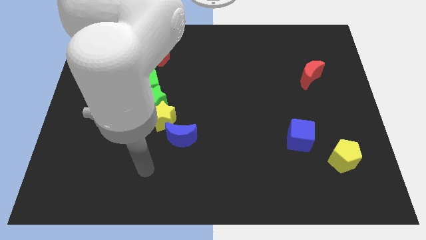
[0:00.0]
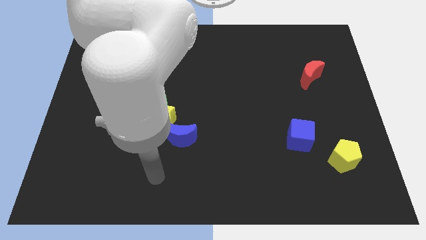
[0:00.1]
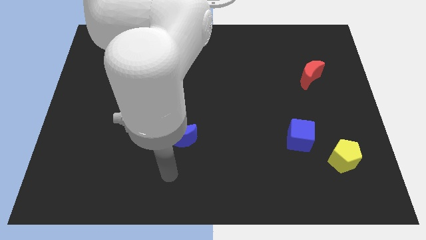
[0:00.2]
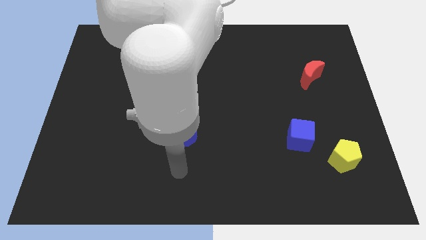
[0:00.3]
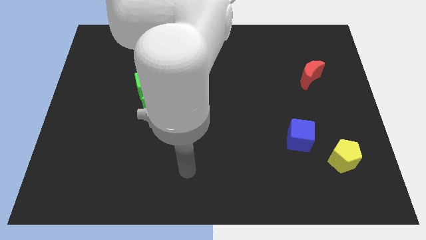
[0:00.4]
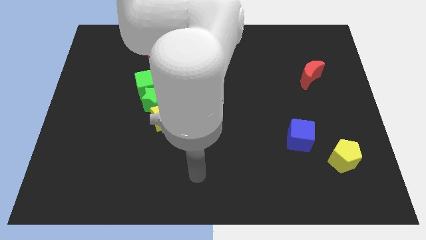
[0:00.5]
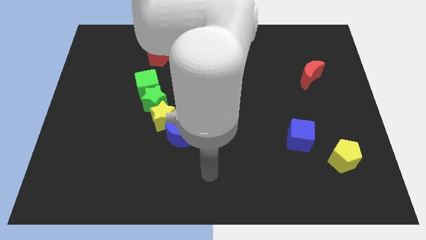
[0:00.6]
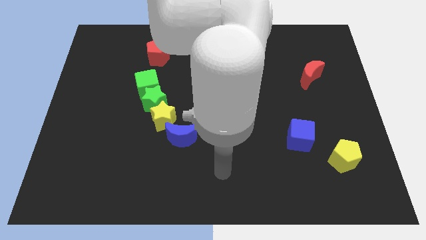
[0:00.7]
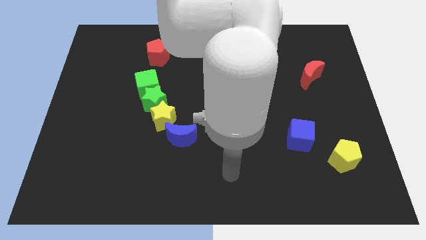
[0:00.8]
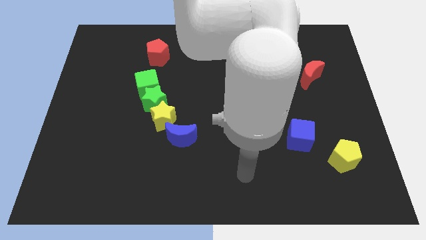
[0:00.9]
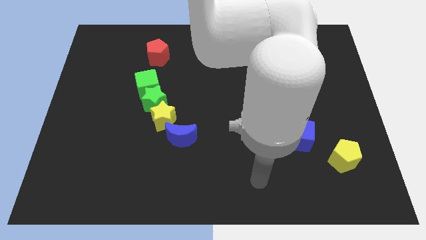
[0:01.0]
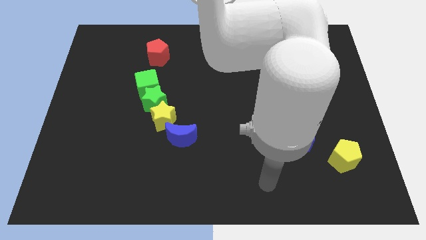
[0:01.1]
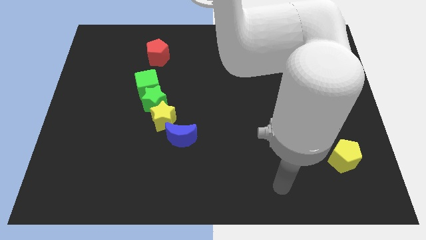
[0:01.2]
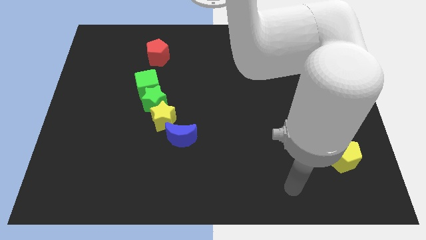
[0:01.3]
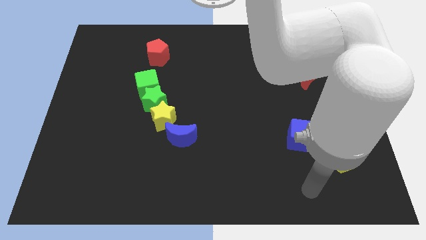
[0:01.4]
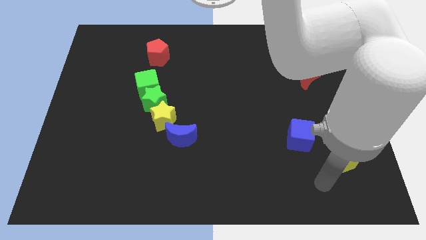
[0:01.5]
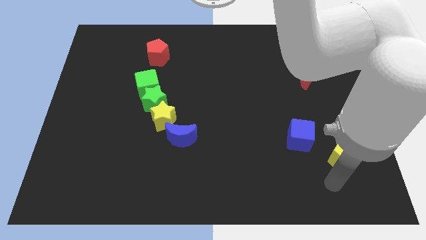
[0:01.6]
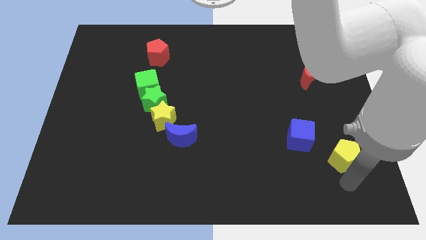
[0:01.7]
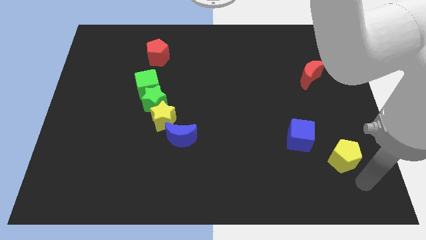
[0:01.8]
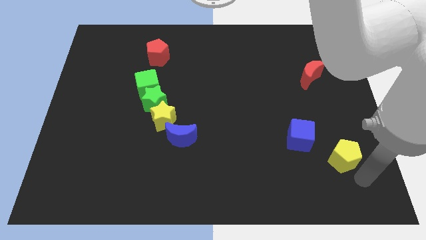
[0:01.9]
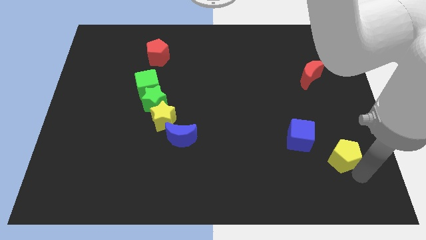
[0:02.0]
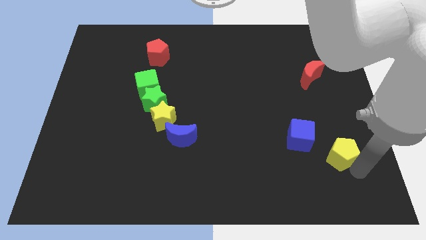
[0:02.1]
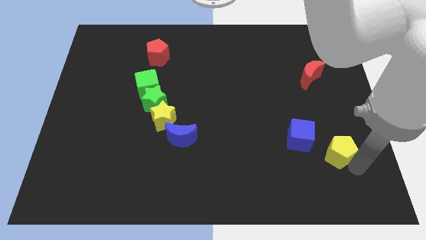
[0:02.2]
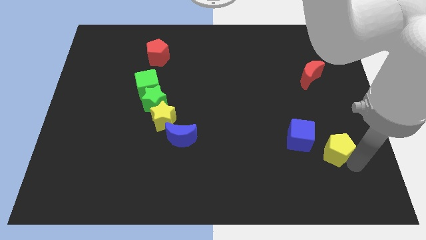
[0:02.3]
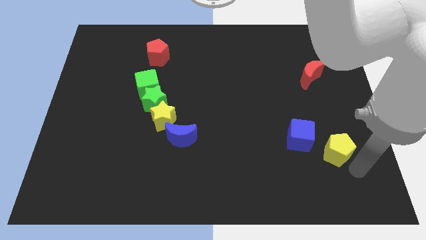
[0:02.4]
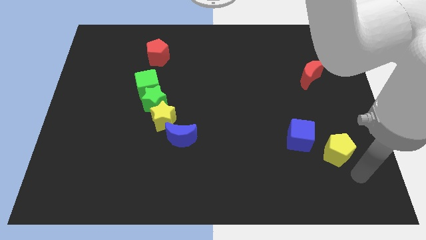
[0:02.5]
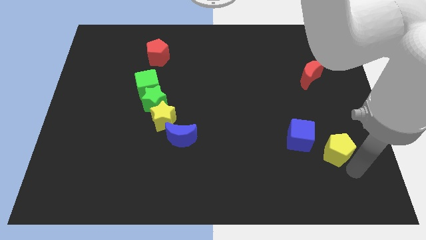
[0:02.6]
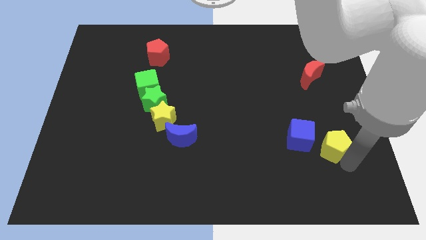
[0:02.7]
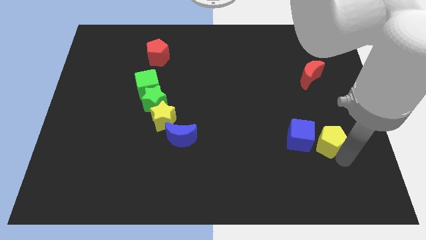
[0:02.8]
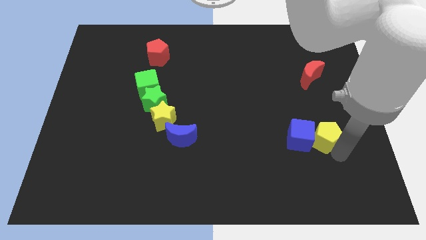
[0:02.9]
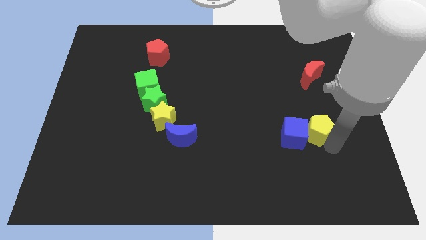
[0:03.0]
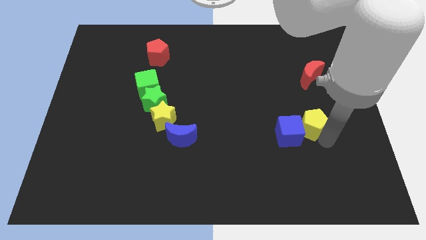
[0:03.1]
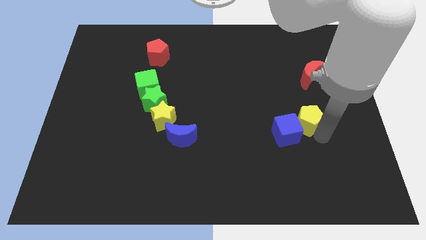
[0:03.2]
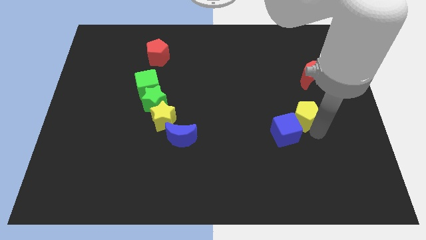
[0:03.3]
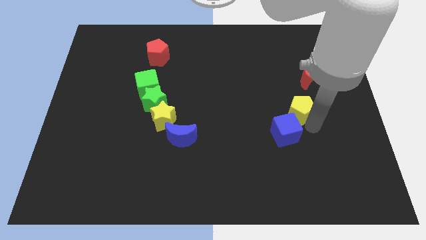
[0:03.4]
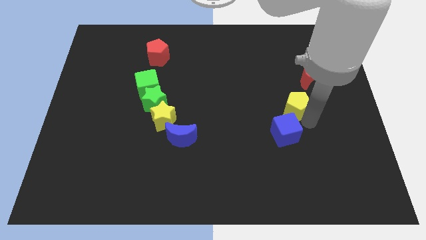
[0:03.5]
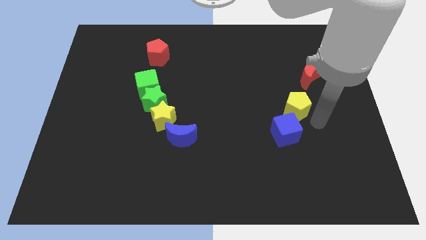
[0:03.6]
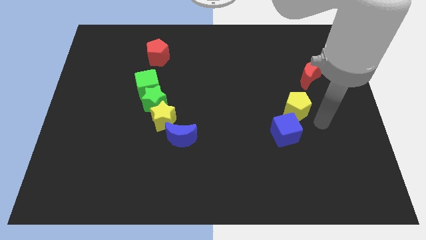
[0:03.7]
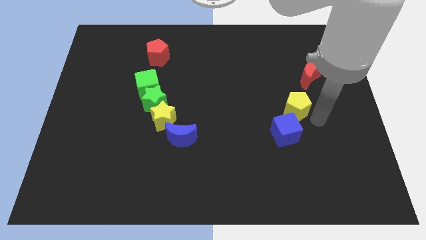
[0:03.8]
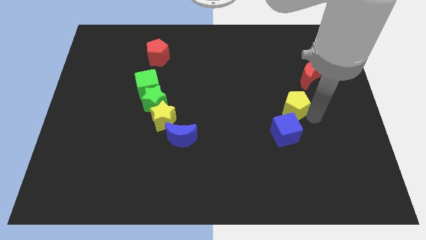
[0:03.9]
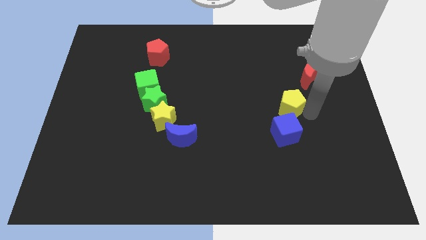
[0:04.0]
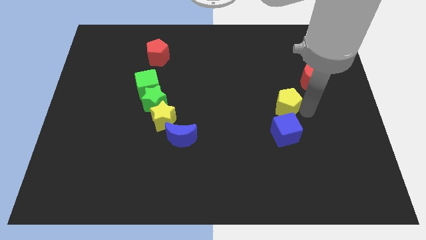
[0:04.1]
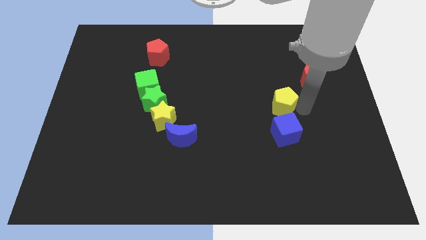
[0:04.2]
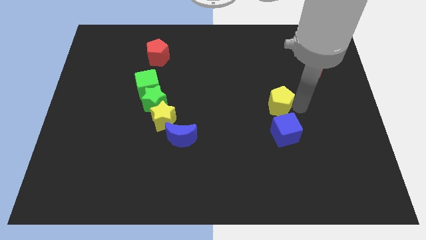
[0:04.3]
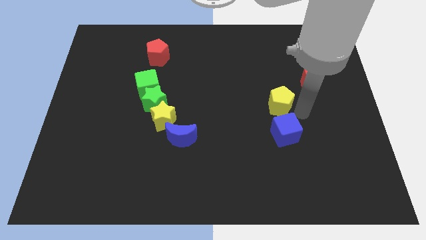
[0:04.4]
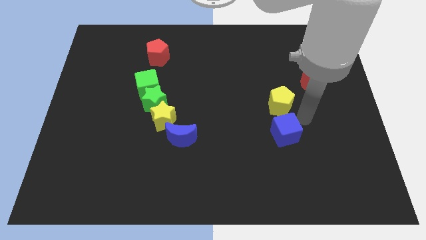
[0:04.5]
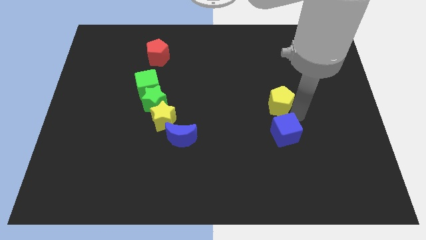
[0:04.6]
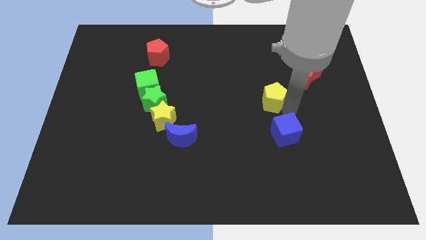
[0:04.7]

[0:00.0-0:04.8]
push the yellow pentagon diagonally upwards and left

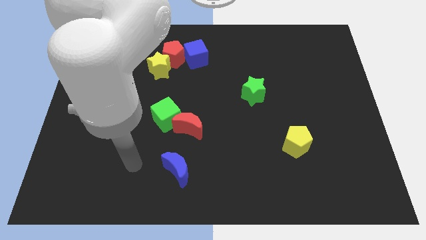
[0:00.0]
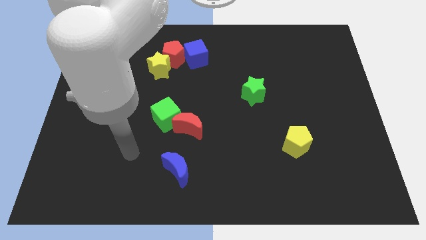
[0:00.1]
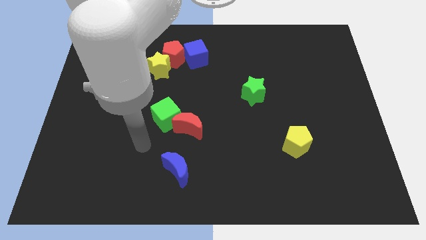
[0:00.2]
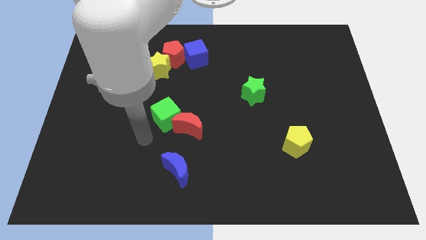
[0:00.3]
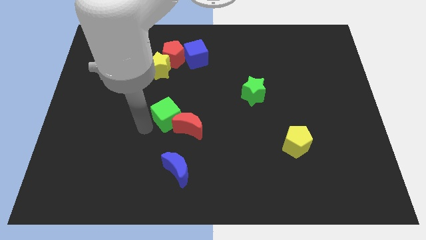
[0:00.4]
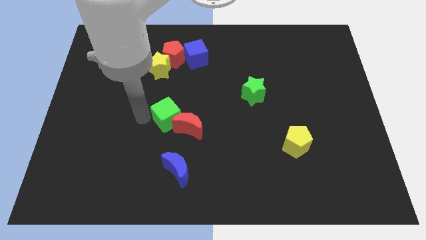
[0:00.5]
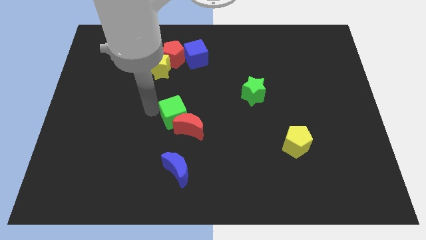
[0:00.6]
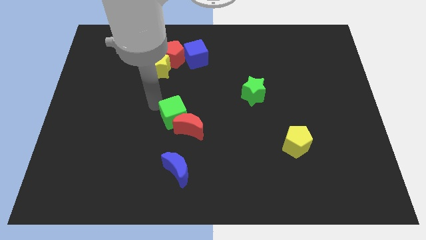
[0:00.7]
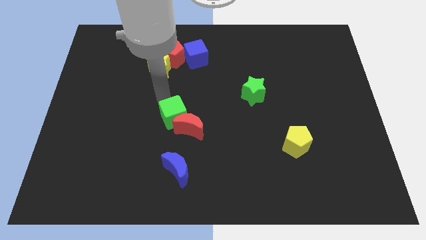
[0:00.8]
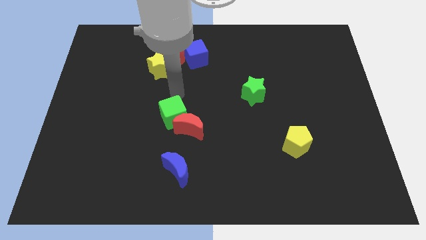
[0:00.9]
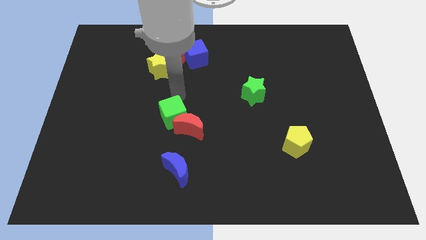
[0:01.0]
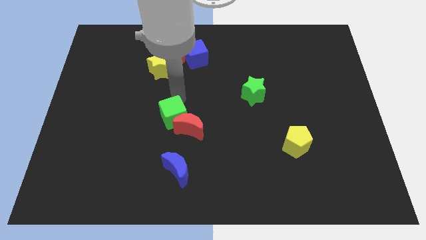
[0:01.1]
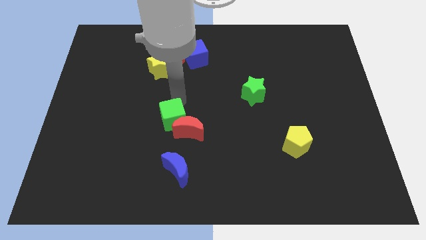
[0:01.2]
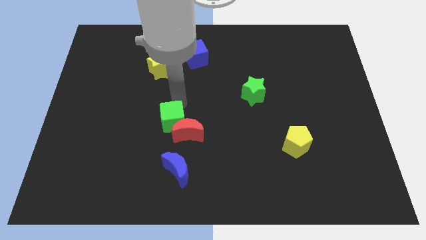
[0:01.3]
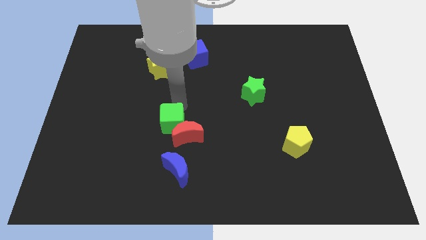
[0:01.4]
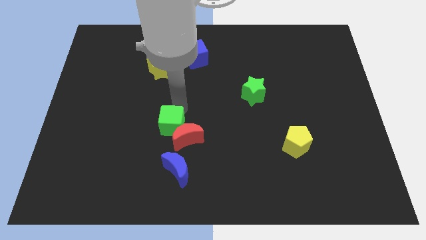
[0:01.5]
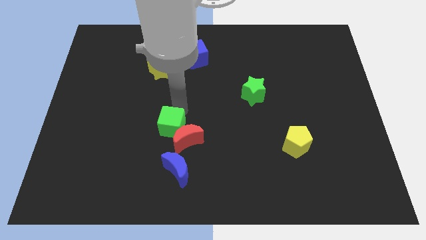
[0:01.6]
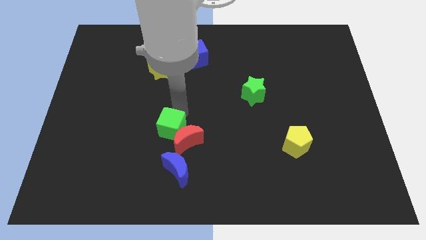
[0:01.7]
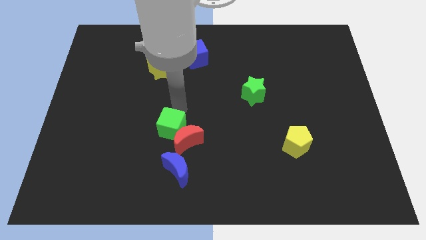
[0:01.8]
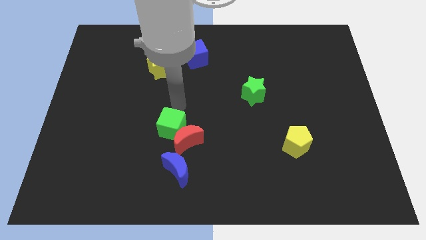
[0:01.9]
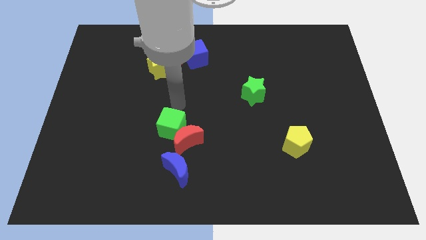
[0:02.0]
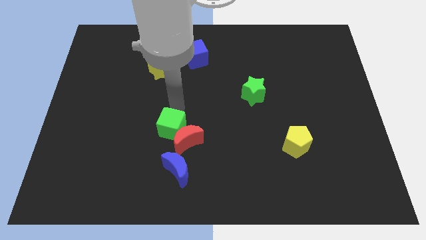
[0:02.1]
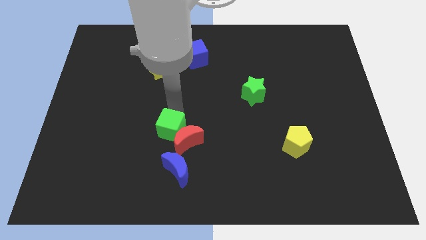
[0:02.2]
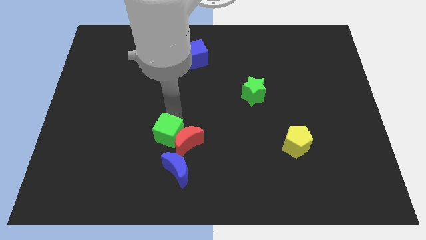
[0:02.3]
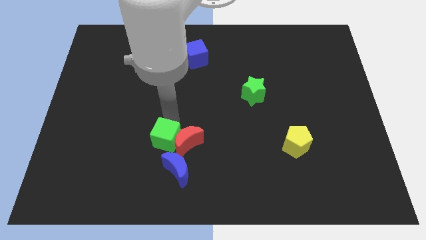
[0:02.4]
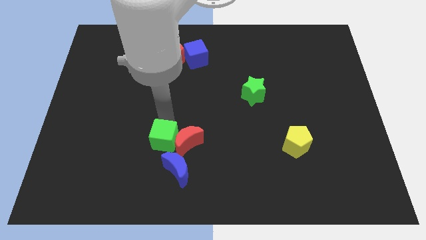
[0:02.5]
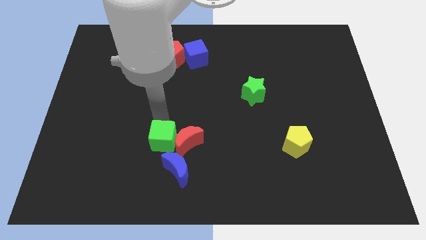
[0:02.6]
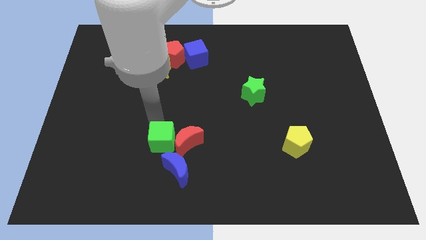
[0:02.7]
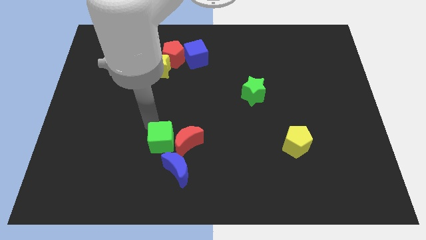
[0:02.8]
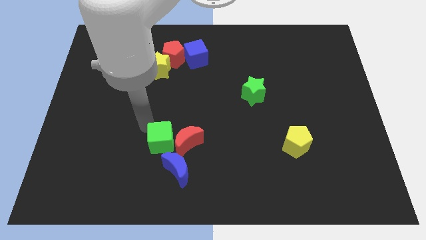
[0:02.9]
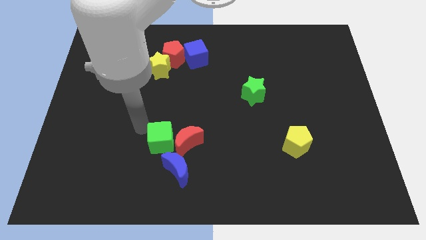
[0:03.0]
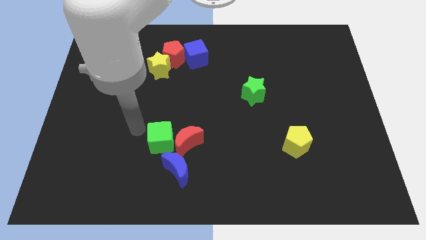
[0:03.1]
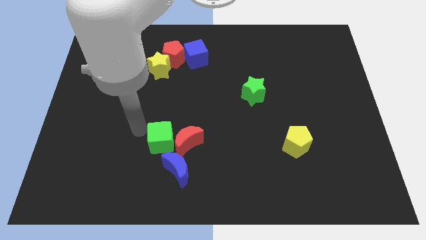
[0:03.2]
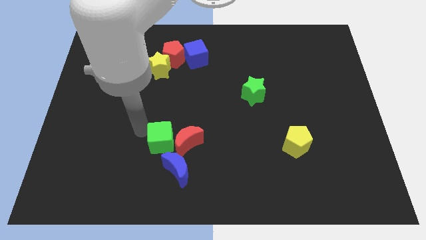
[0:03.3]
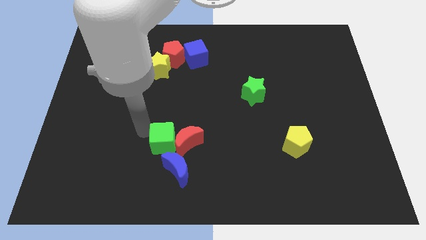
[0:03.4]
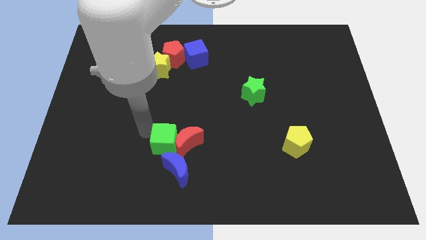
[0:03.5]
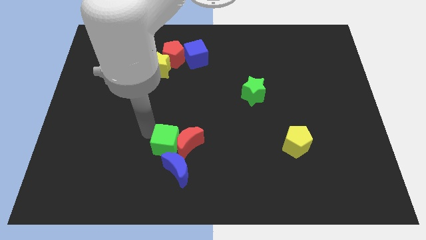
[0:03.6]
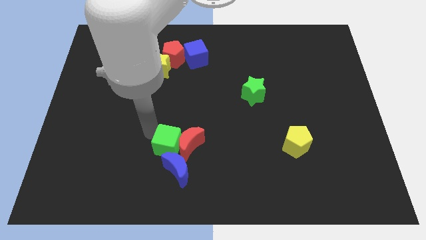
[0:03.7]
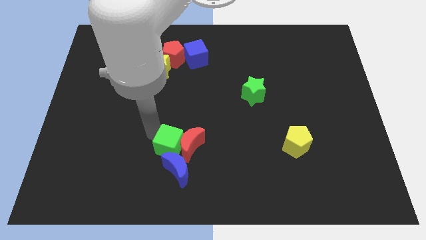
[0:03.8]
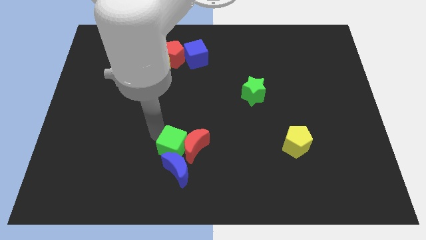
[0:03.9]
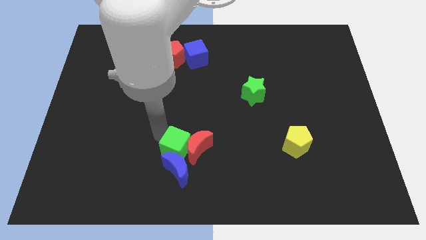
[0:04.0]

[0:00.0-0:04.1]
slightly slide the green cube down and right diagonally
